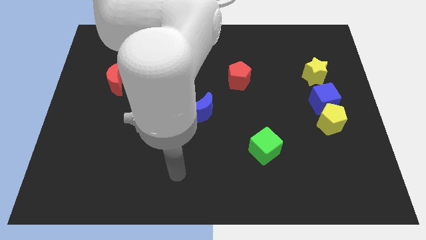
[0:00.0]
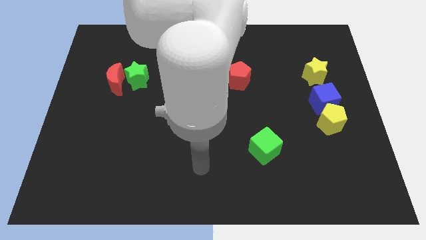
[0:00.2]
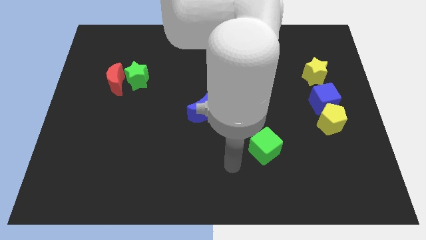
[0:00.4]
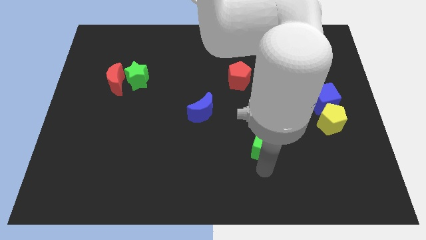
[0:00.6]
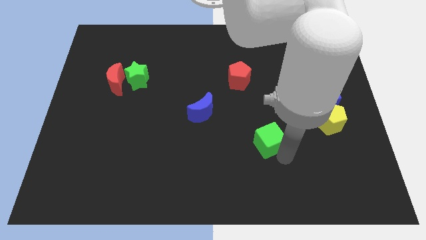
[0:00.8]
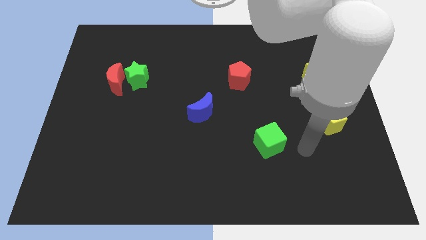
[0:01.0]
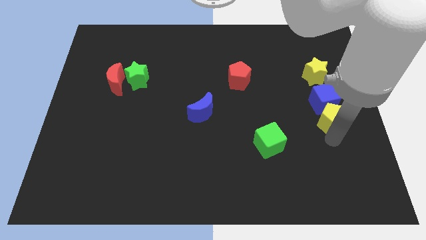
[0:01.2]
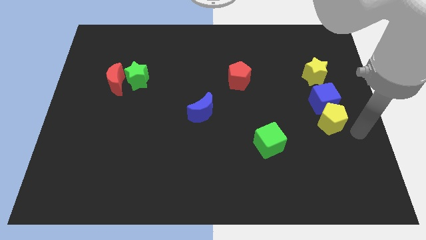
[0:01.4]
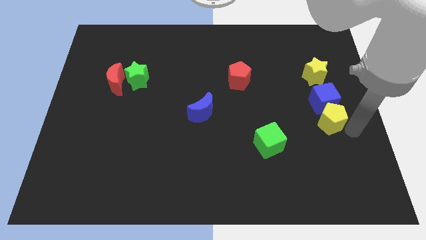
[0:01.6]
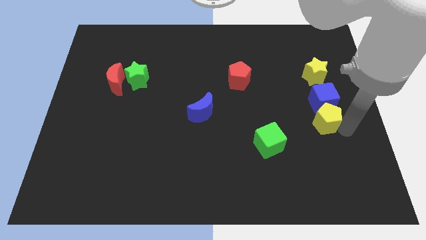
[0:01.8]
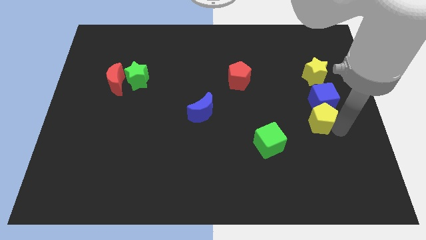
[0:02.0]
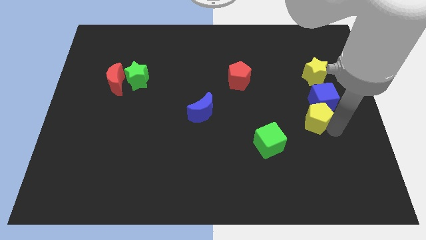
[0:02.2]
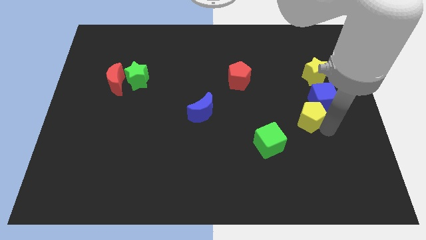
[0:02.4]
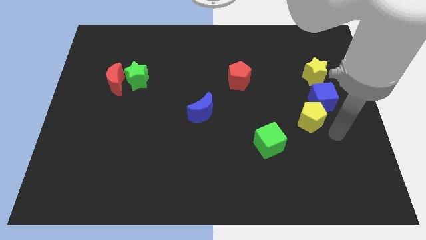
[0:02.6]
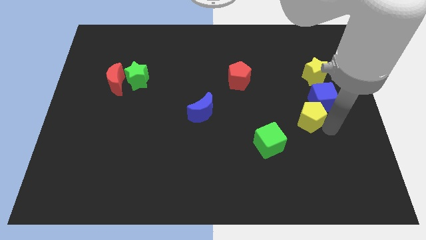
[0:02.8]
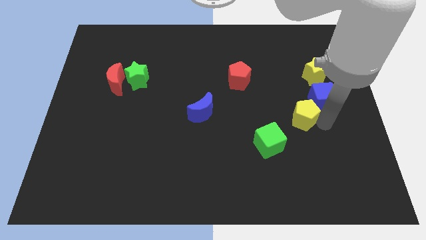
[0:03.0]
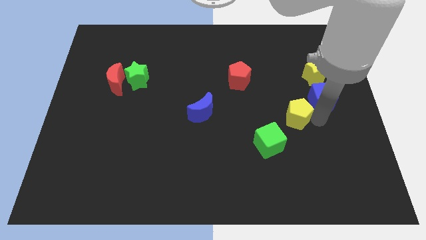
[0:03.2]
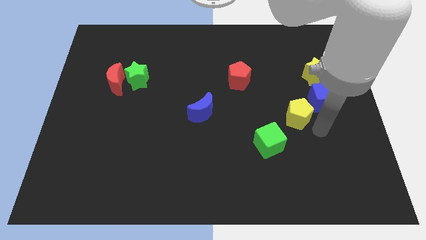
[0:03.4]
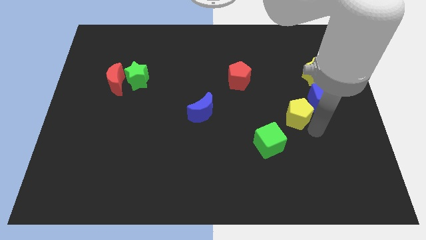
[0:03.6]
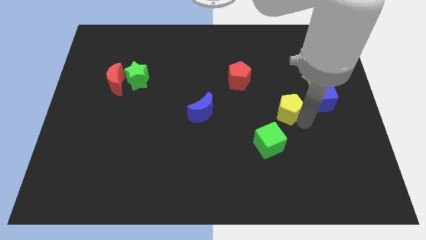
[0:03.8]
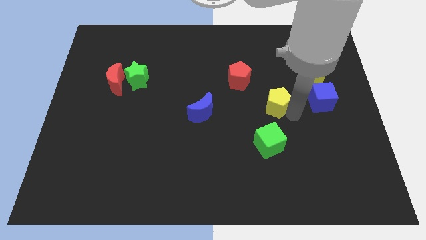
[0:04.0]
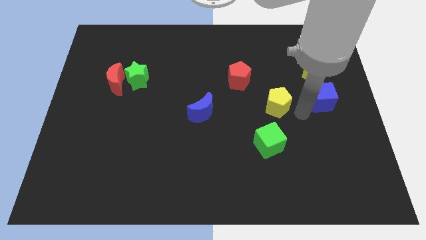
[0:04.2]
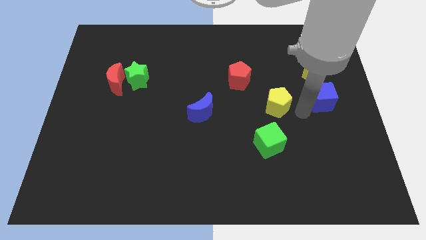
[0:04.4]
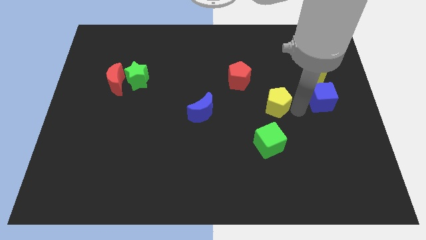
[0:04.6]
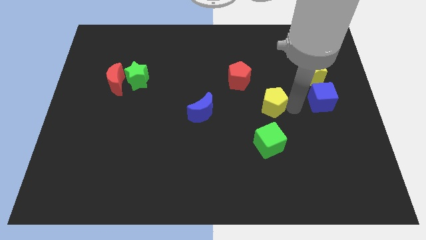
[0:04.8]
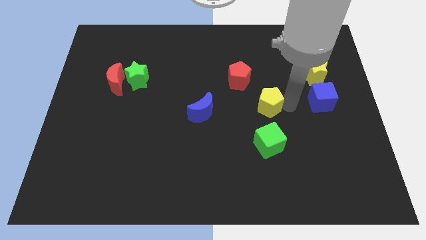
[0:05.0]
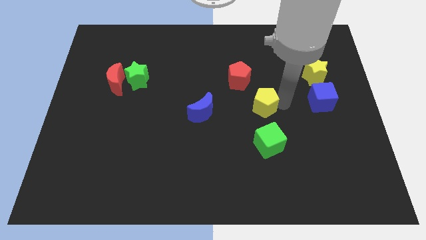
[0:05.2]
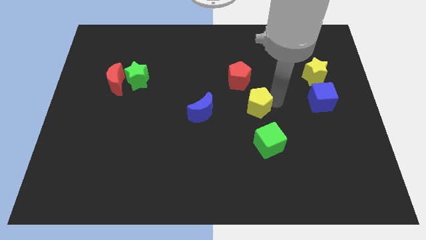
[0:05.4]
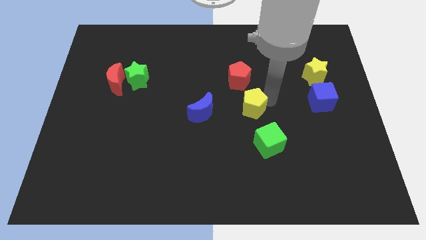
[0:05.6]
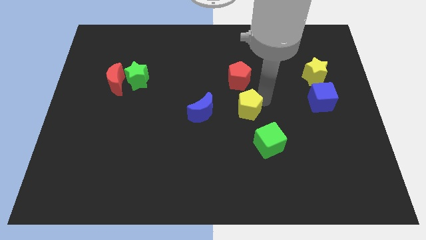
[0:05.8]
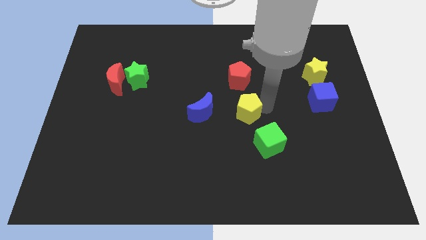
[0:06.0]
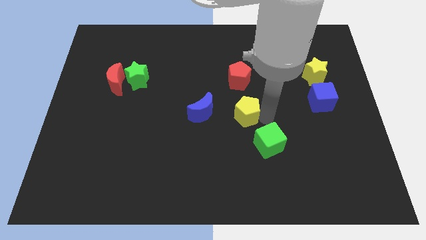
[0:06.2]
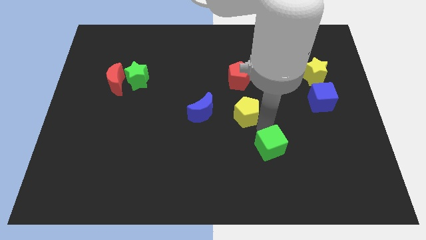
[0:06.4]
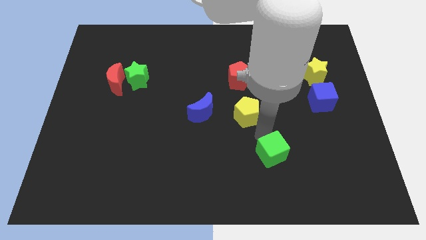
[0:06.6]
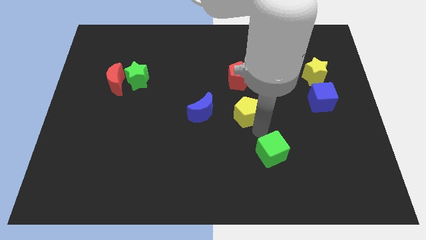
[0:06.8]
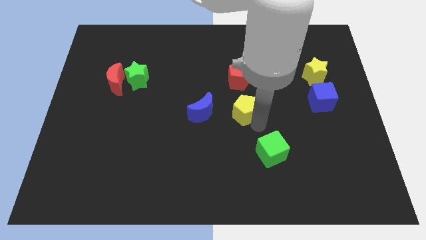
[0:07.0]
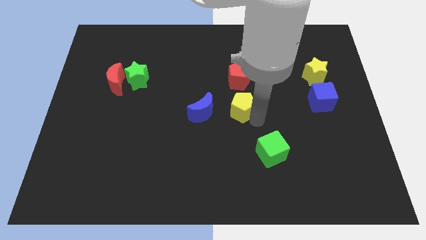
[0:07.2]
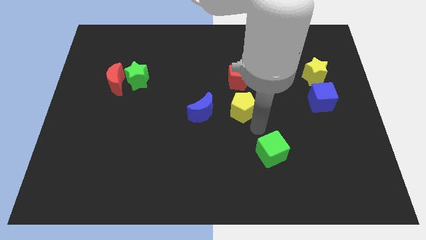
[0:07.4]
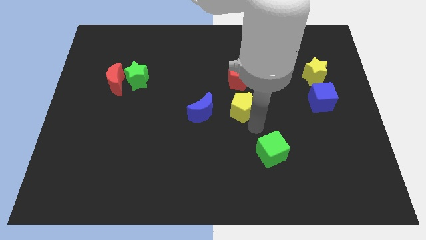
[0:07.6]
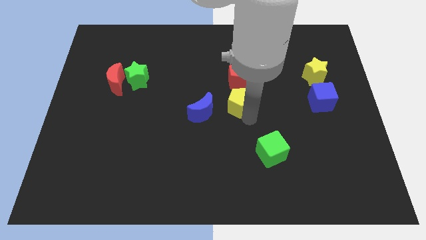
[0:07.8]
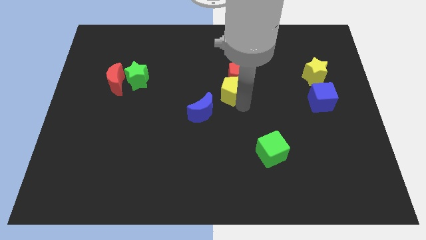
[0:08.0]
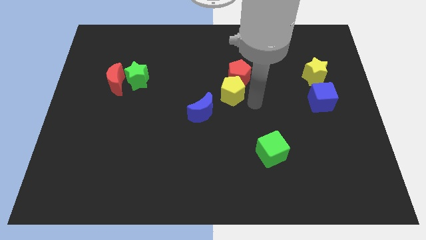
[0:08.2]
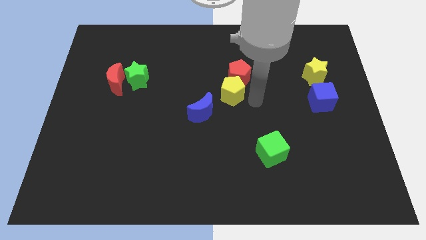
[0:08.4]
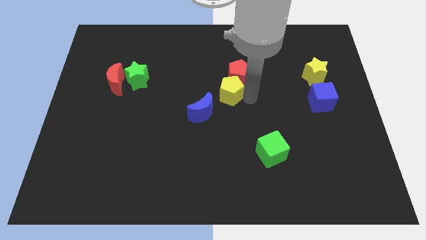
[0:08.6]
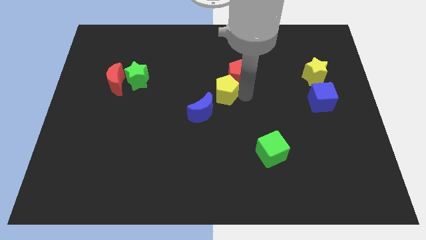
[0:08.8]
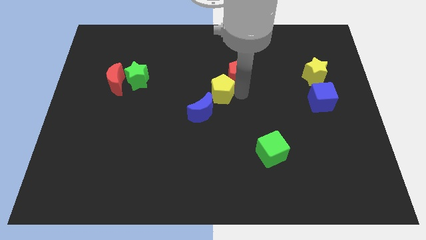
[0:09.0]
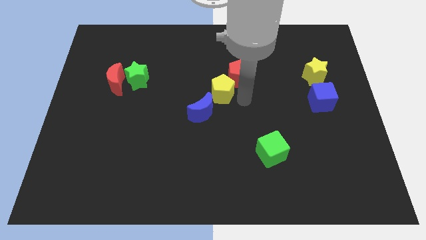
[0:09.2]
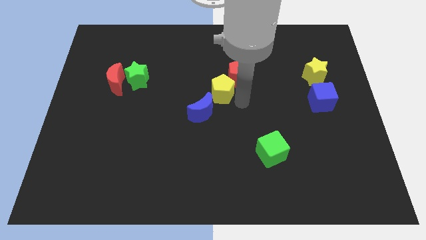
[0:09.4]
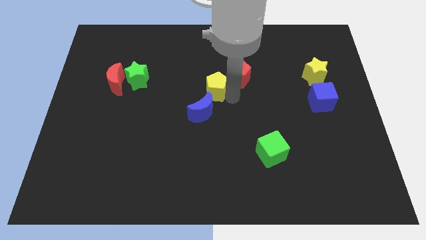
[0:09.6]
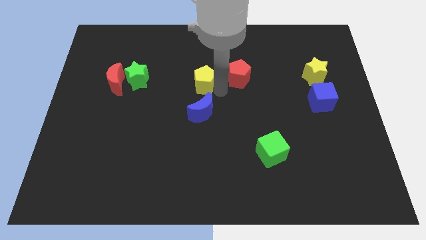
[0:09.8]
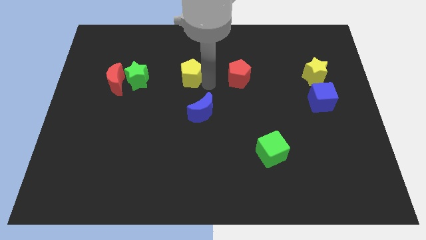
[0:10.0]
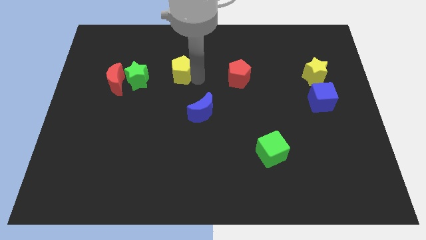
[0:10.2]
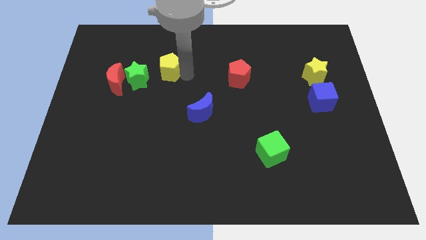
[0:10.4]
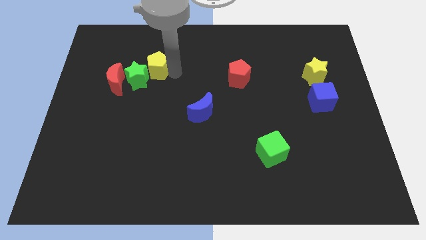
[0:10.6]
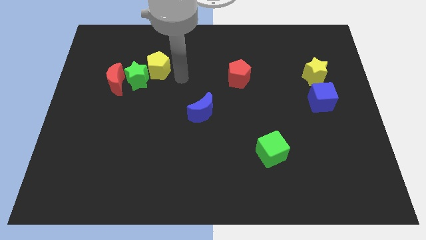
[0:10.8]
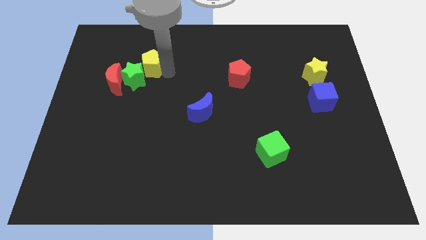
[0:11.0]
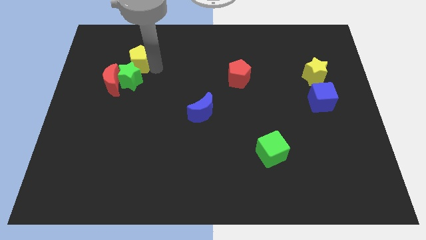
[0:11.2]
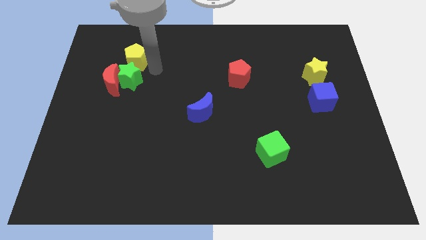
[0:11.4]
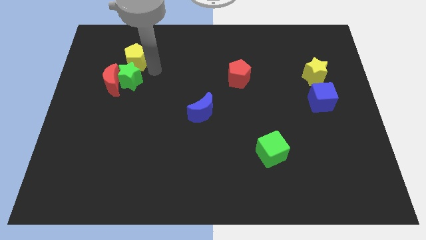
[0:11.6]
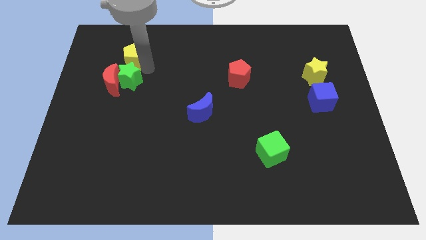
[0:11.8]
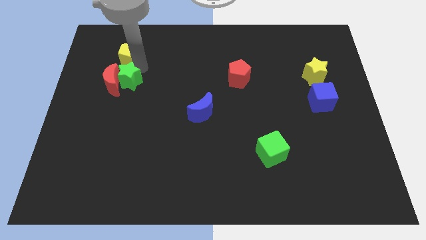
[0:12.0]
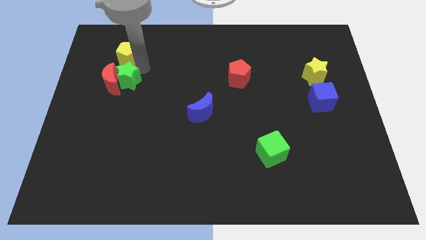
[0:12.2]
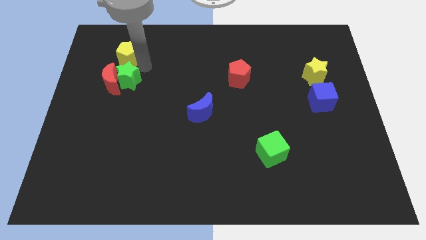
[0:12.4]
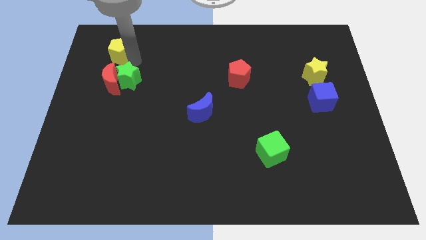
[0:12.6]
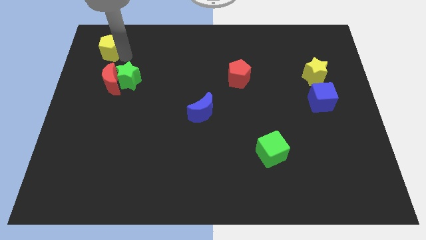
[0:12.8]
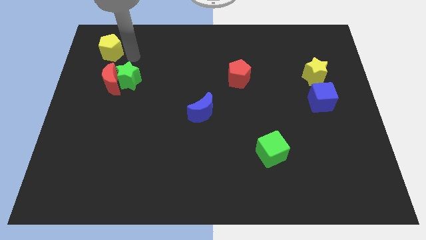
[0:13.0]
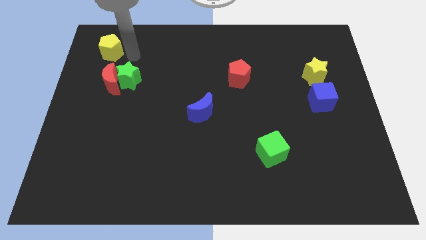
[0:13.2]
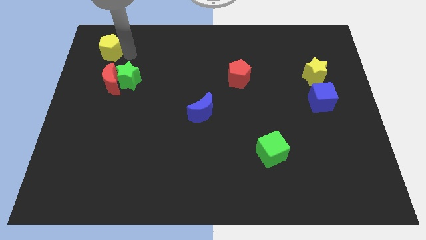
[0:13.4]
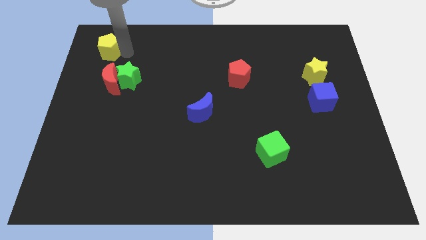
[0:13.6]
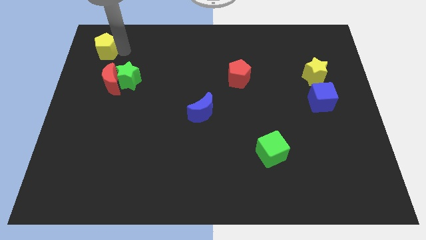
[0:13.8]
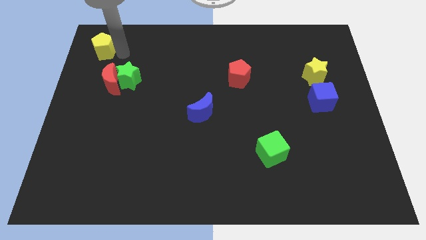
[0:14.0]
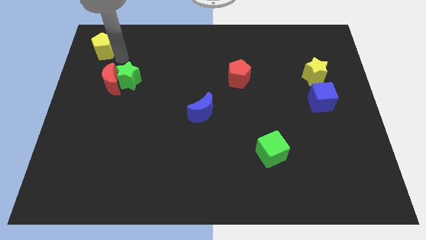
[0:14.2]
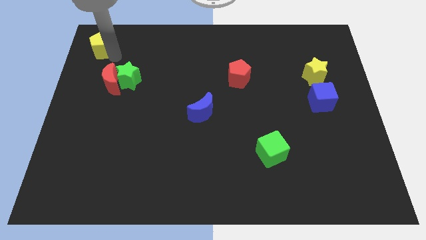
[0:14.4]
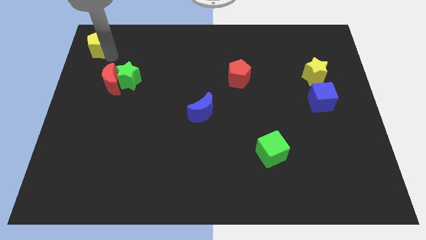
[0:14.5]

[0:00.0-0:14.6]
put the yellow pentagon to the top left of the board

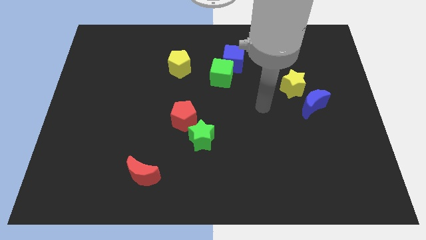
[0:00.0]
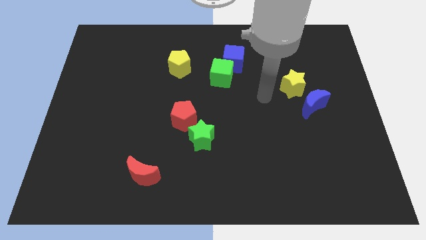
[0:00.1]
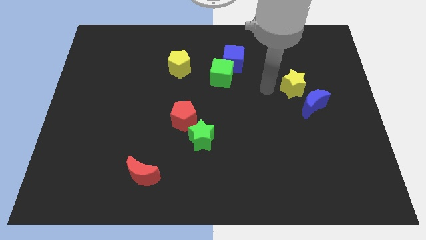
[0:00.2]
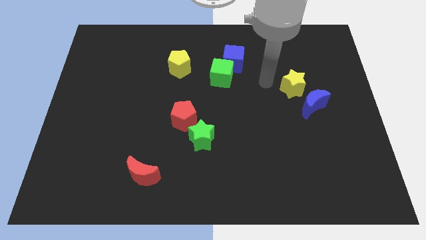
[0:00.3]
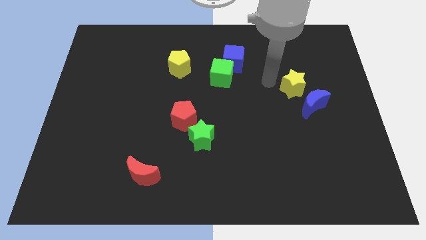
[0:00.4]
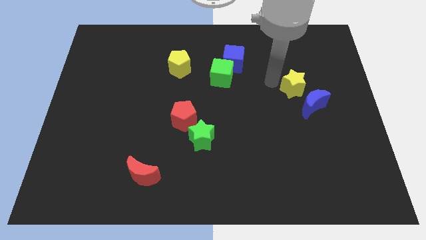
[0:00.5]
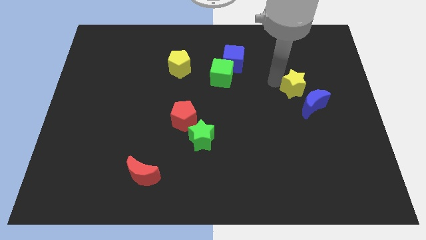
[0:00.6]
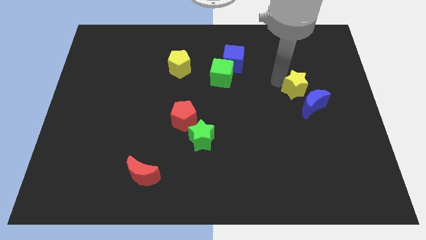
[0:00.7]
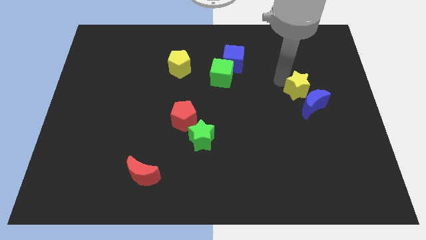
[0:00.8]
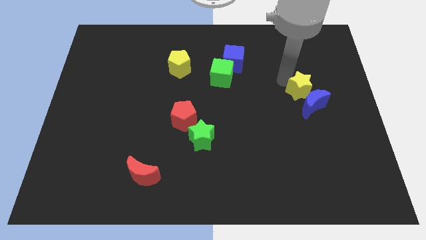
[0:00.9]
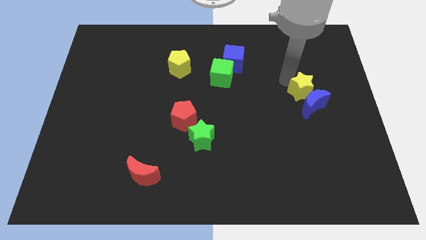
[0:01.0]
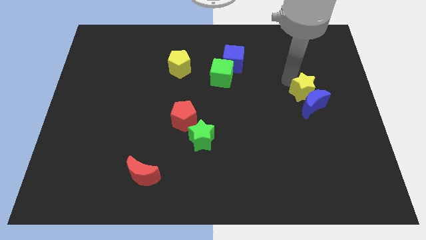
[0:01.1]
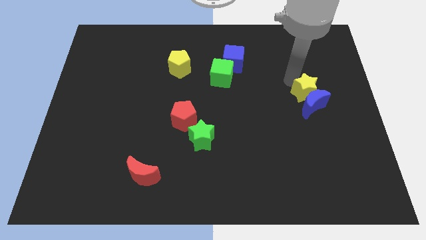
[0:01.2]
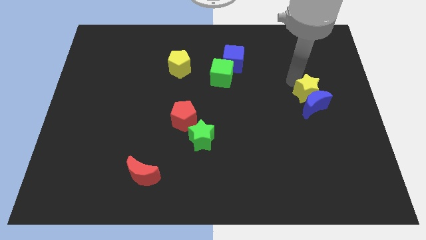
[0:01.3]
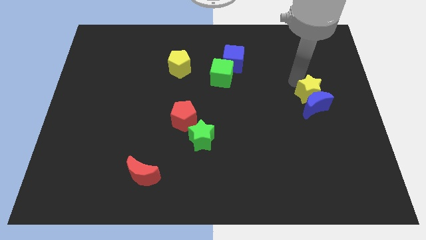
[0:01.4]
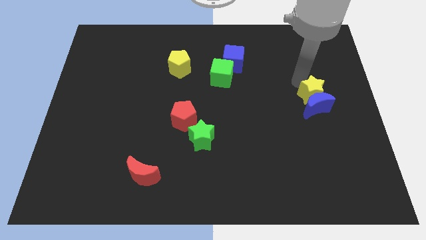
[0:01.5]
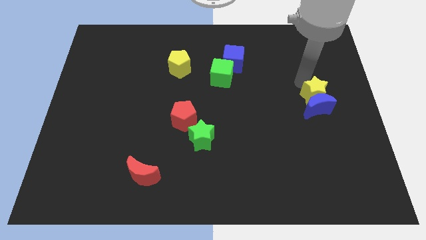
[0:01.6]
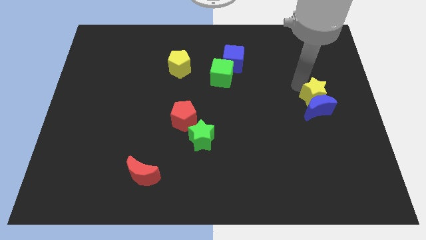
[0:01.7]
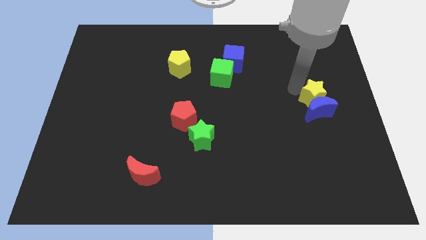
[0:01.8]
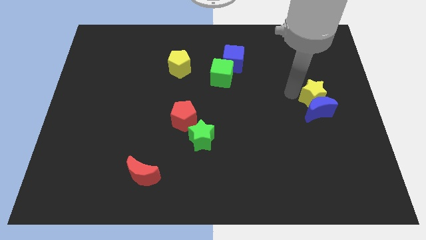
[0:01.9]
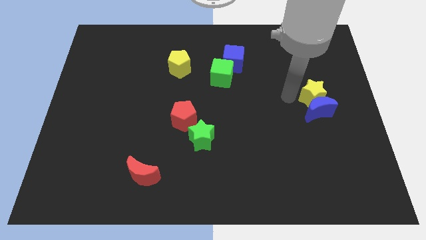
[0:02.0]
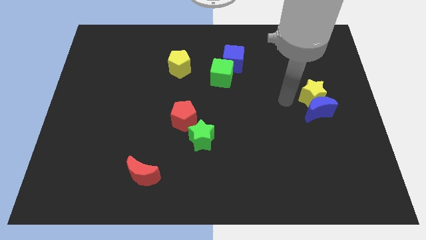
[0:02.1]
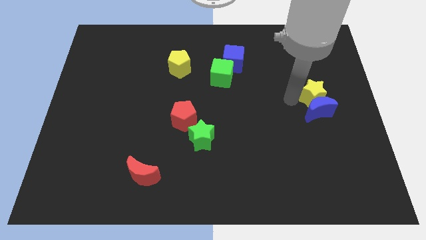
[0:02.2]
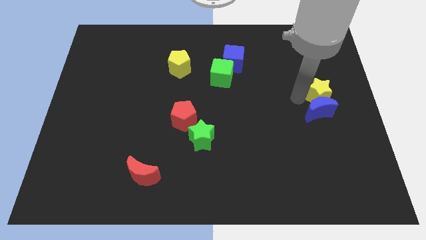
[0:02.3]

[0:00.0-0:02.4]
slide the yellow star to the right side
